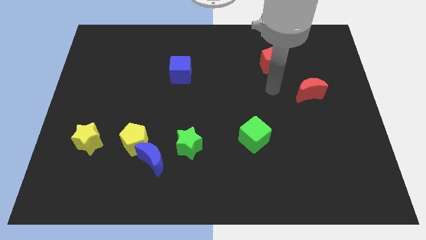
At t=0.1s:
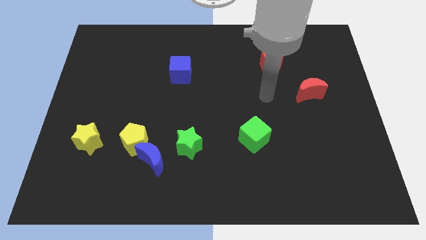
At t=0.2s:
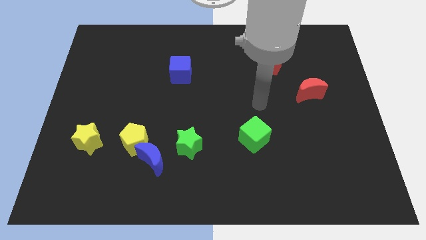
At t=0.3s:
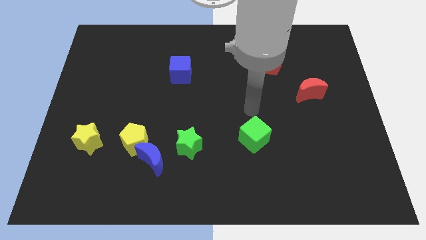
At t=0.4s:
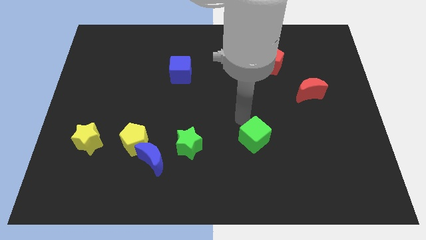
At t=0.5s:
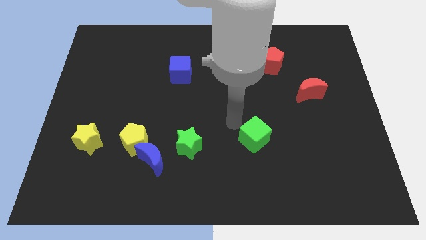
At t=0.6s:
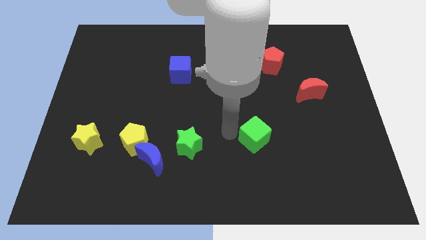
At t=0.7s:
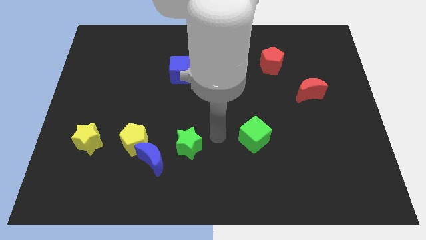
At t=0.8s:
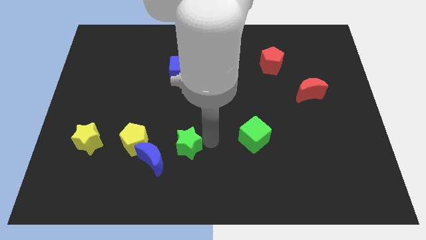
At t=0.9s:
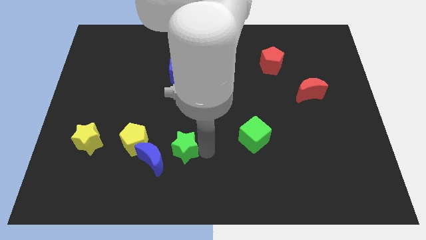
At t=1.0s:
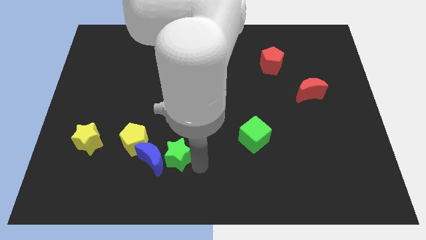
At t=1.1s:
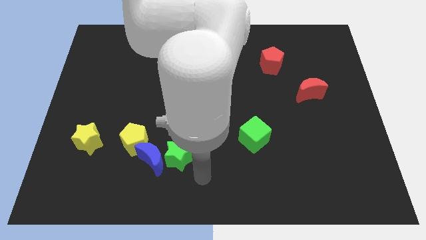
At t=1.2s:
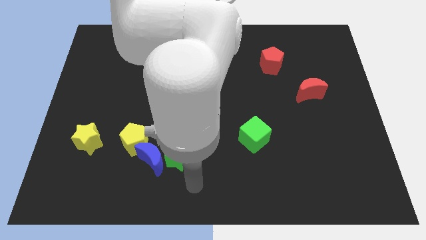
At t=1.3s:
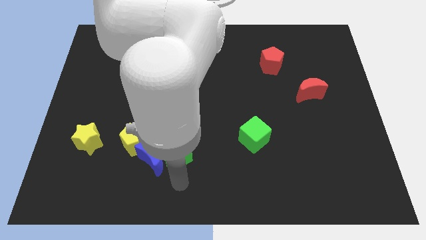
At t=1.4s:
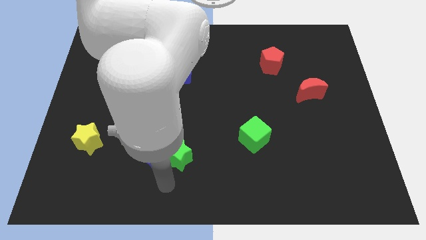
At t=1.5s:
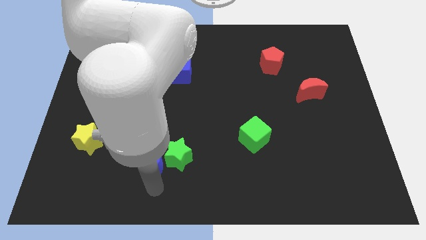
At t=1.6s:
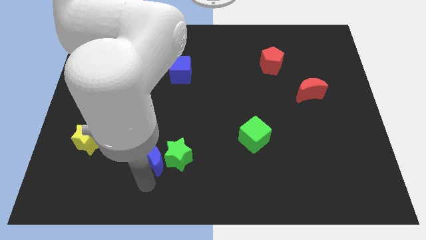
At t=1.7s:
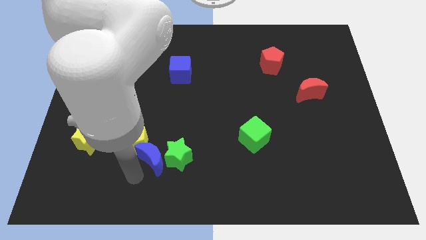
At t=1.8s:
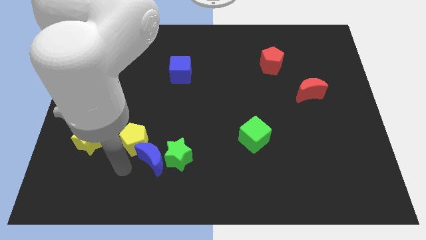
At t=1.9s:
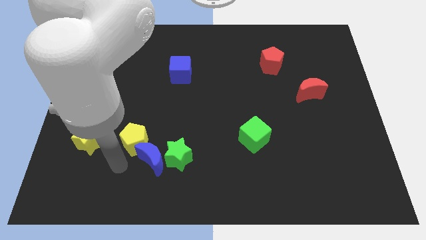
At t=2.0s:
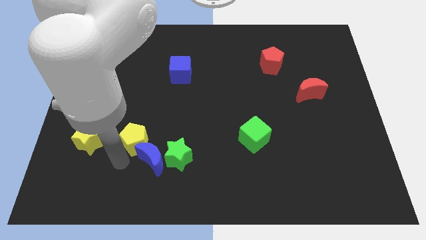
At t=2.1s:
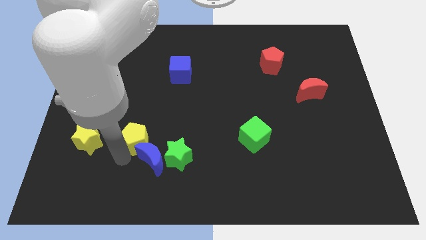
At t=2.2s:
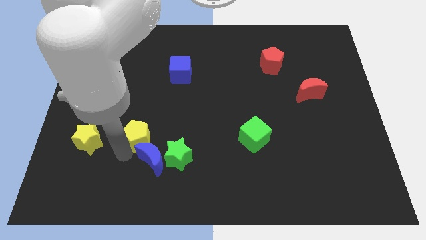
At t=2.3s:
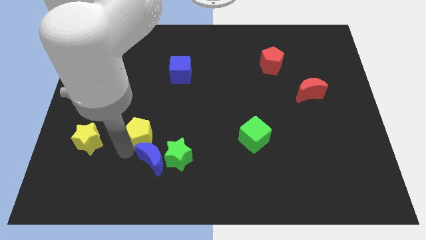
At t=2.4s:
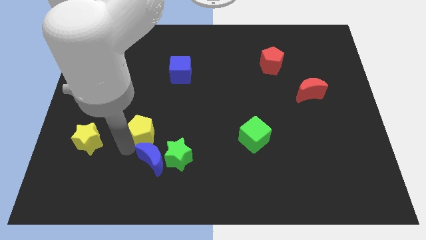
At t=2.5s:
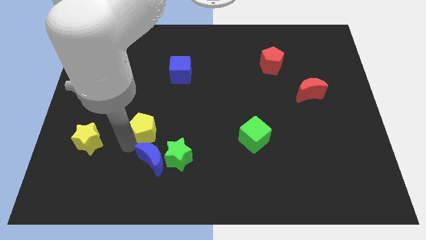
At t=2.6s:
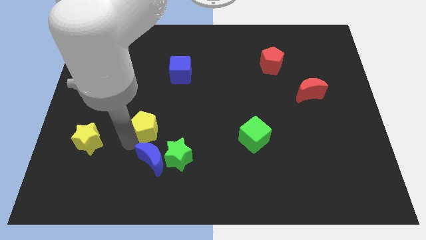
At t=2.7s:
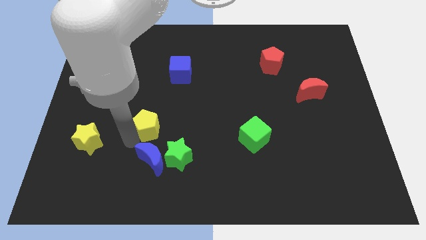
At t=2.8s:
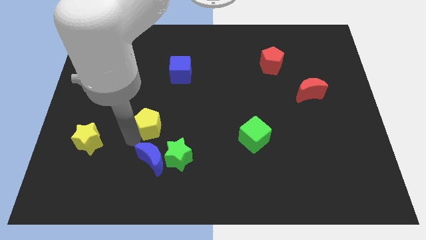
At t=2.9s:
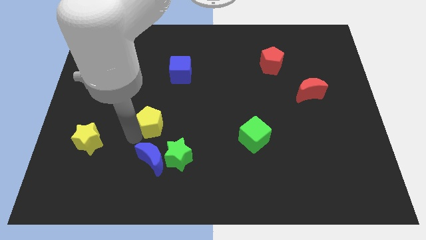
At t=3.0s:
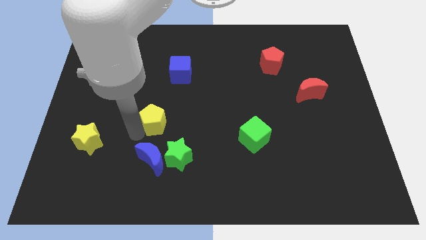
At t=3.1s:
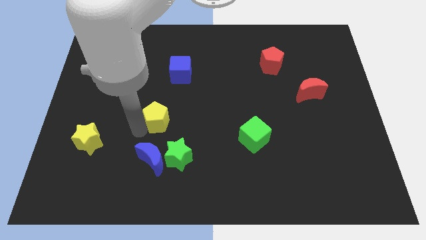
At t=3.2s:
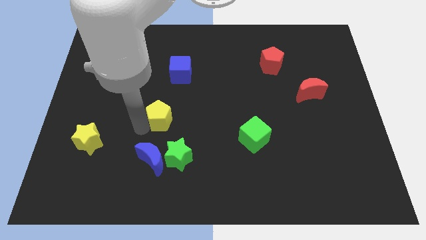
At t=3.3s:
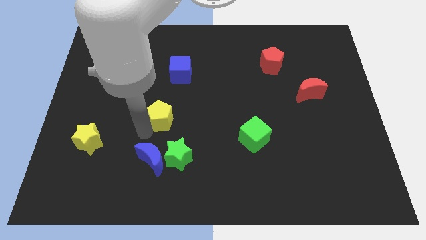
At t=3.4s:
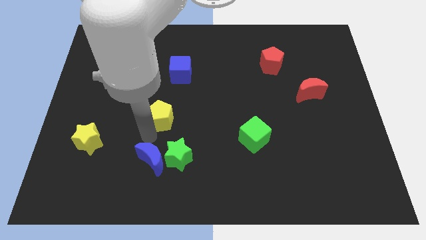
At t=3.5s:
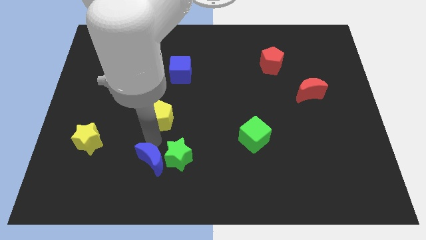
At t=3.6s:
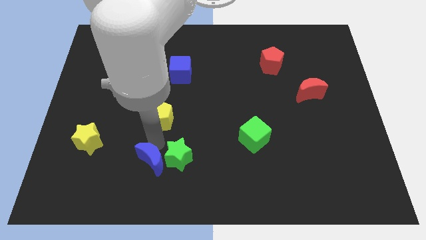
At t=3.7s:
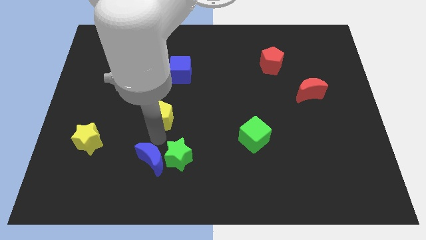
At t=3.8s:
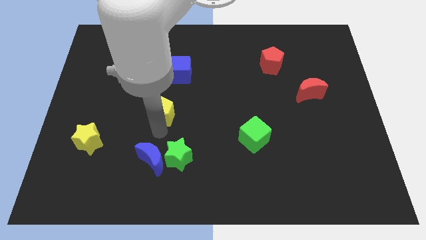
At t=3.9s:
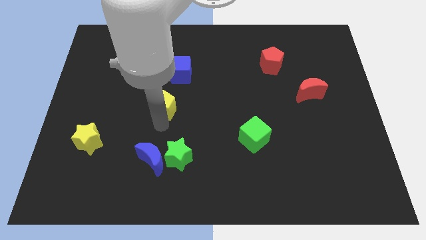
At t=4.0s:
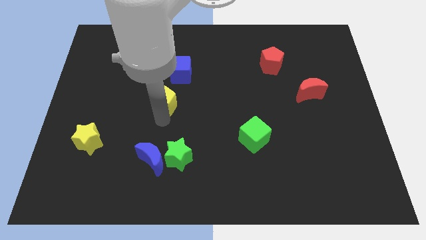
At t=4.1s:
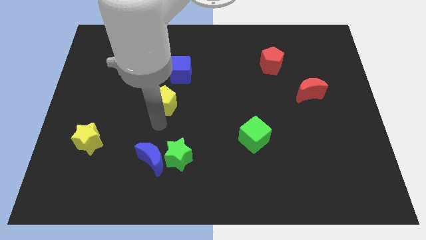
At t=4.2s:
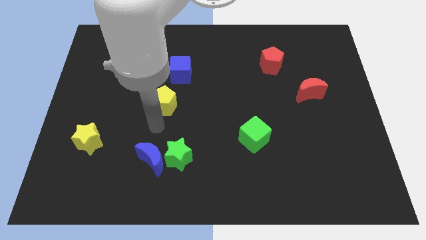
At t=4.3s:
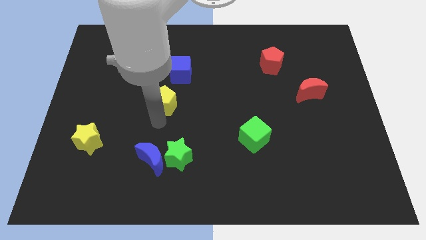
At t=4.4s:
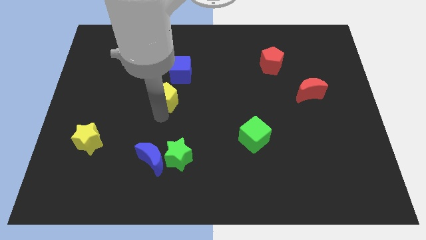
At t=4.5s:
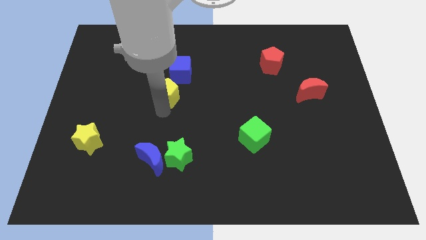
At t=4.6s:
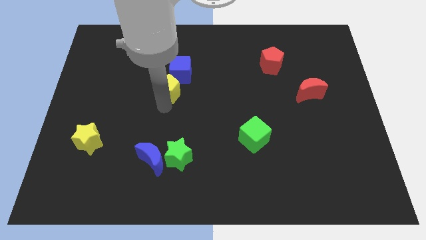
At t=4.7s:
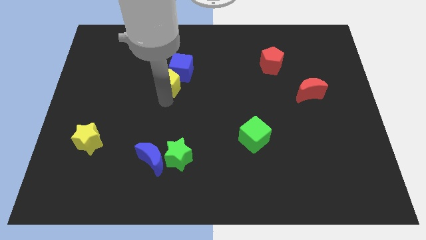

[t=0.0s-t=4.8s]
move the yellow pentagon next to the blue cube

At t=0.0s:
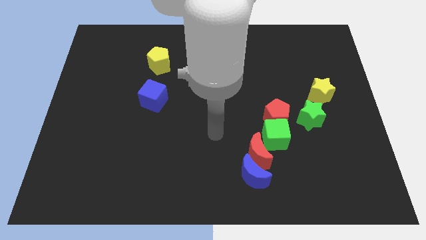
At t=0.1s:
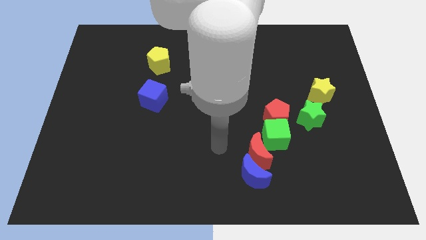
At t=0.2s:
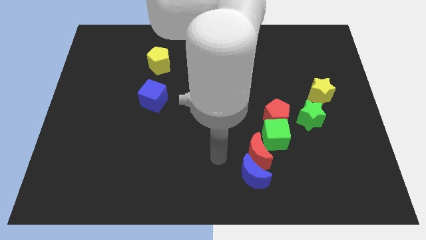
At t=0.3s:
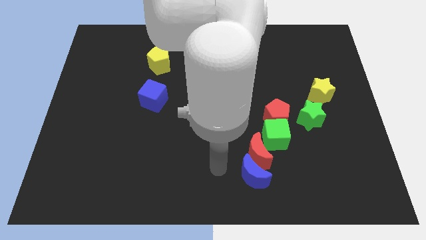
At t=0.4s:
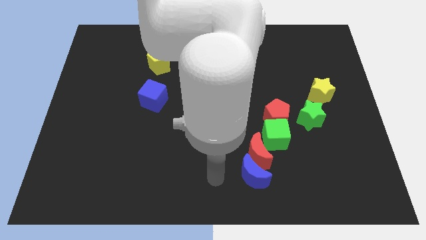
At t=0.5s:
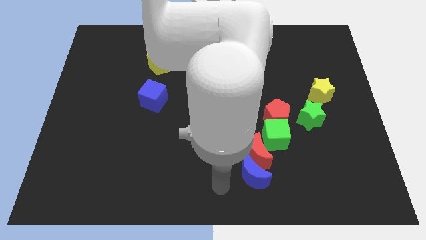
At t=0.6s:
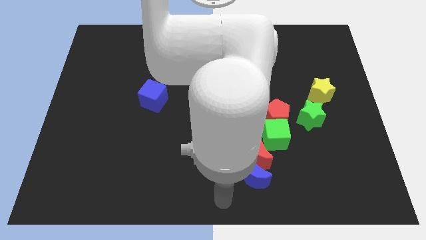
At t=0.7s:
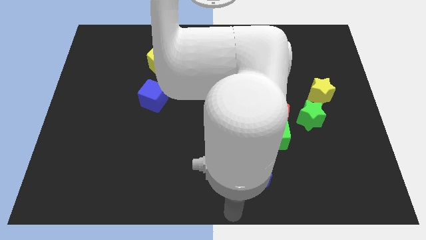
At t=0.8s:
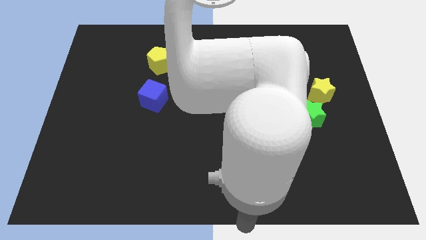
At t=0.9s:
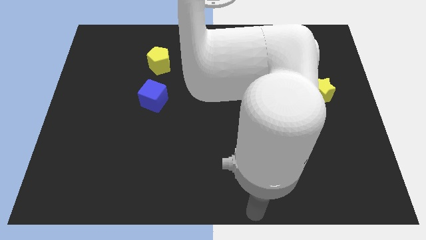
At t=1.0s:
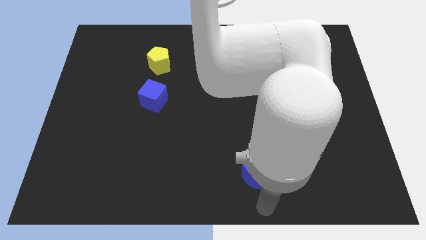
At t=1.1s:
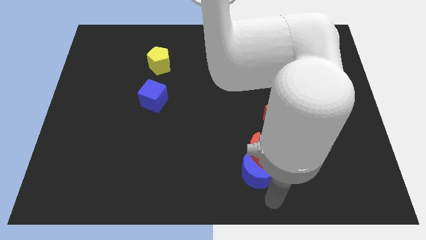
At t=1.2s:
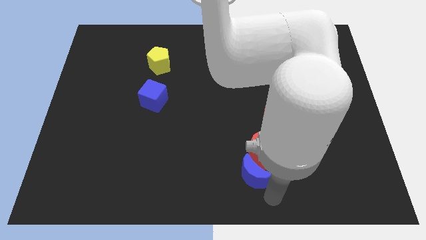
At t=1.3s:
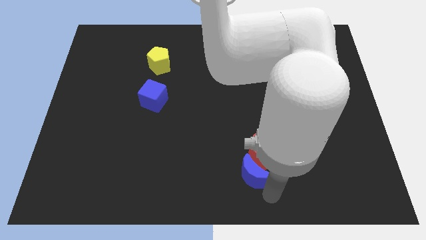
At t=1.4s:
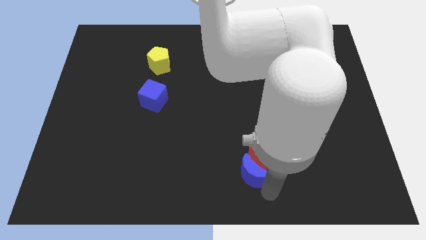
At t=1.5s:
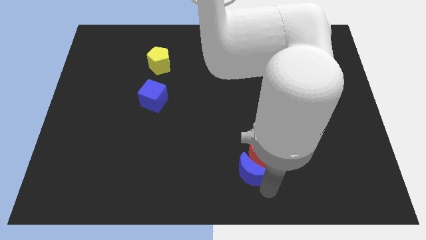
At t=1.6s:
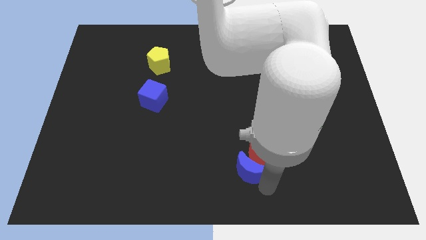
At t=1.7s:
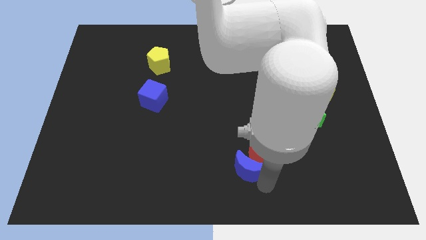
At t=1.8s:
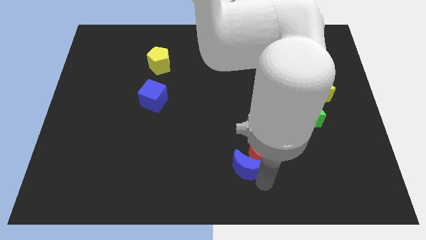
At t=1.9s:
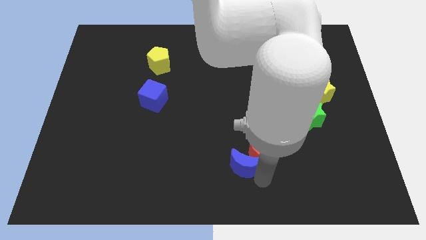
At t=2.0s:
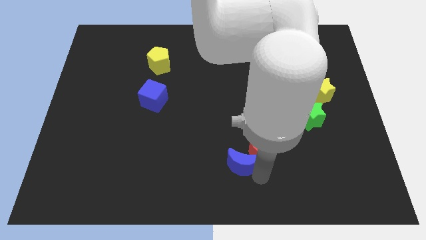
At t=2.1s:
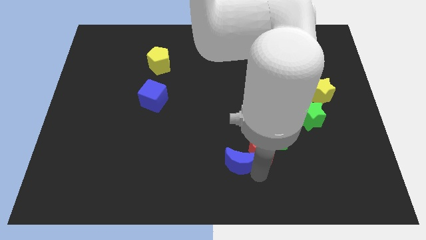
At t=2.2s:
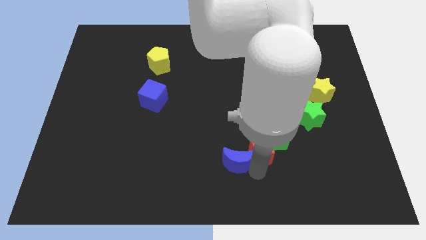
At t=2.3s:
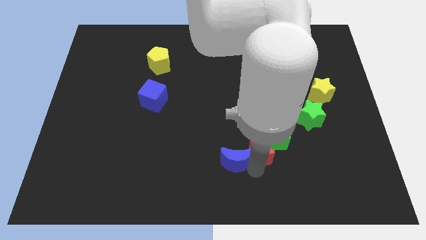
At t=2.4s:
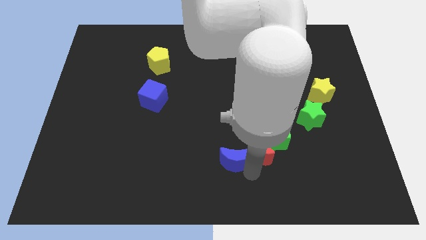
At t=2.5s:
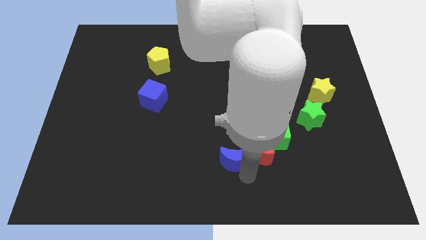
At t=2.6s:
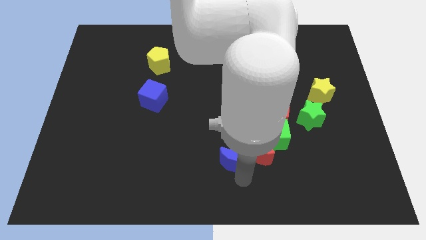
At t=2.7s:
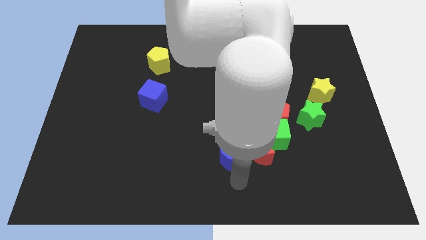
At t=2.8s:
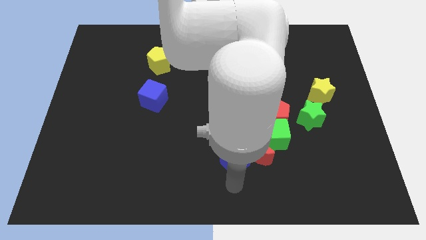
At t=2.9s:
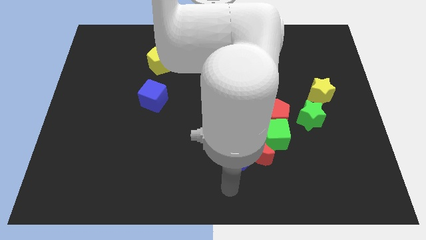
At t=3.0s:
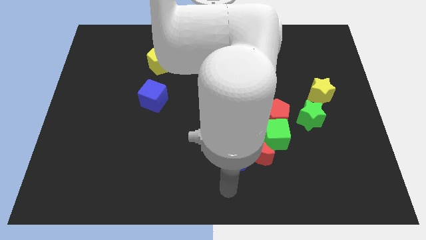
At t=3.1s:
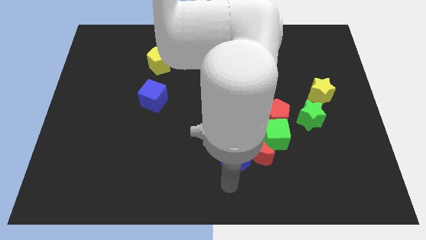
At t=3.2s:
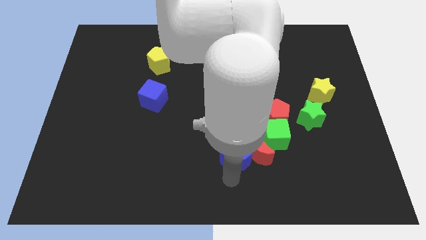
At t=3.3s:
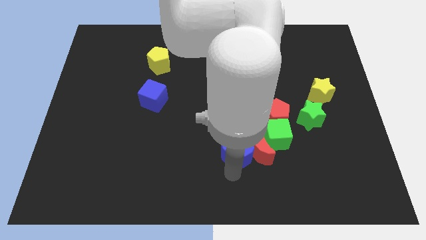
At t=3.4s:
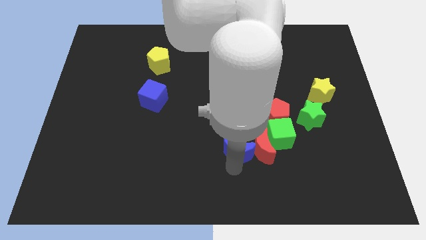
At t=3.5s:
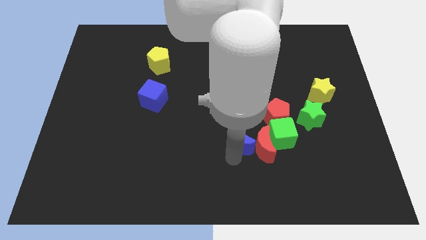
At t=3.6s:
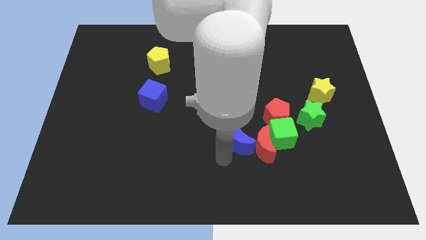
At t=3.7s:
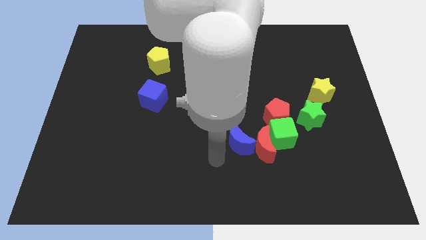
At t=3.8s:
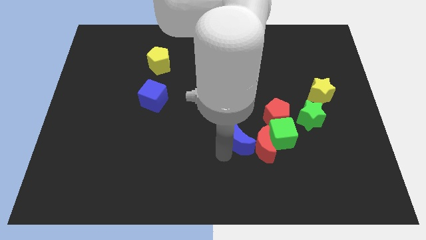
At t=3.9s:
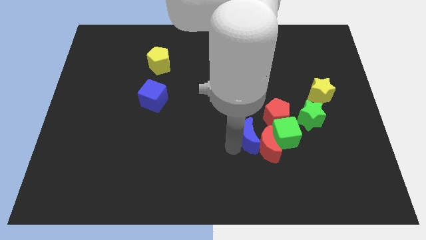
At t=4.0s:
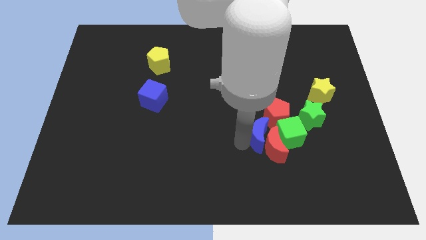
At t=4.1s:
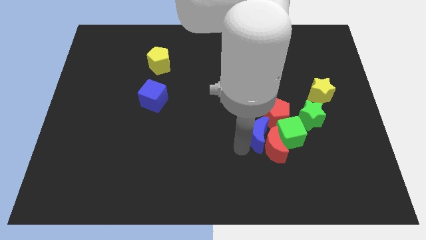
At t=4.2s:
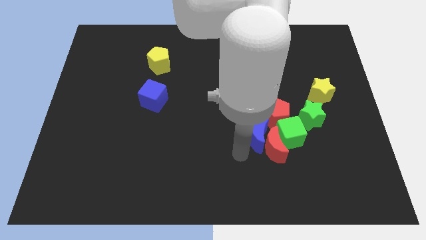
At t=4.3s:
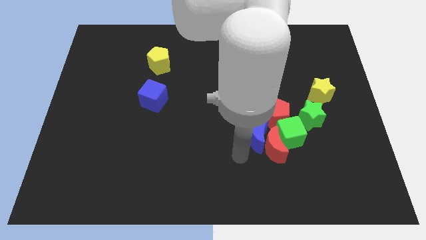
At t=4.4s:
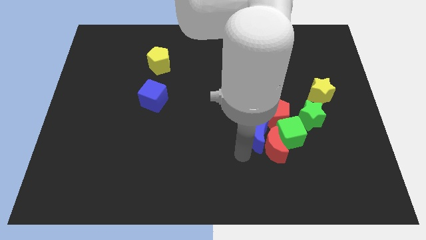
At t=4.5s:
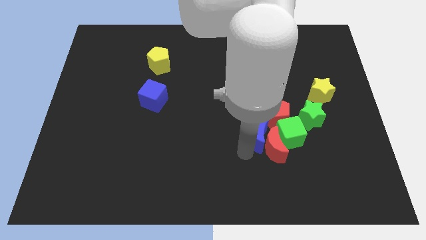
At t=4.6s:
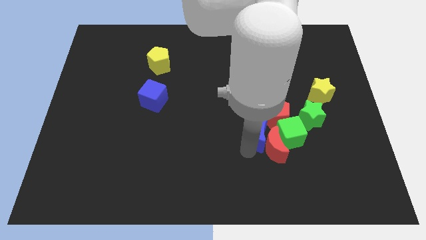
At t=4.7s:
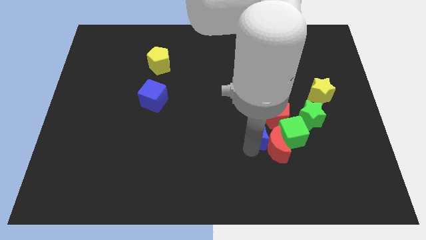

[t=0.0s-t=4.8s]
push the blue moon next to the red pentagon
